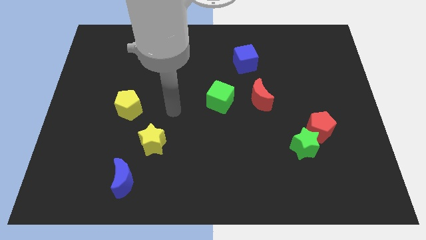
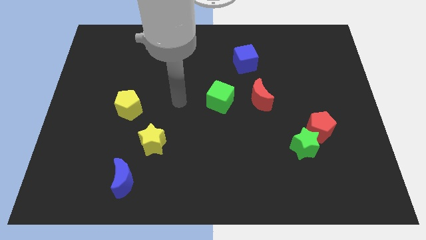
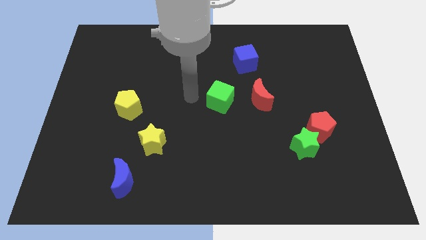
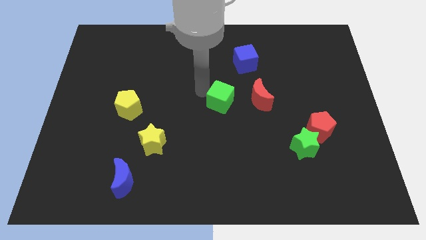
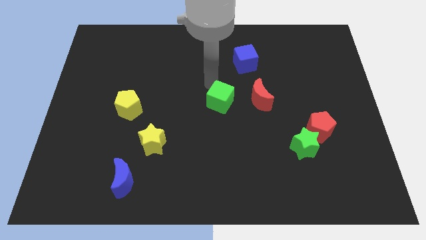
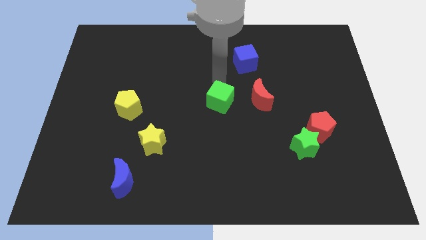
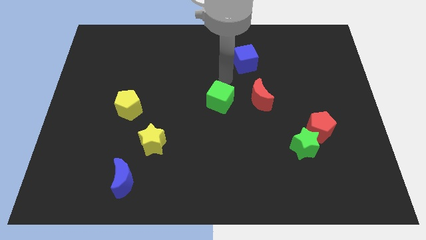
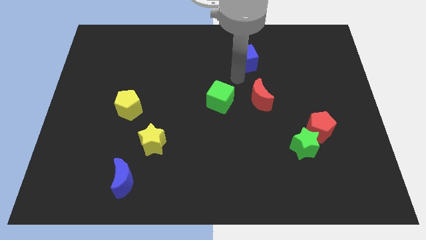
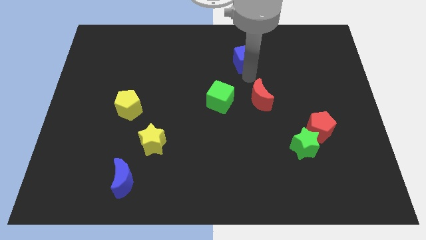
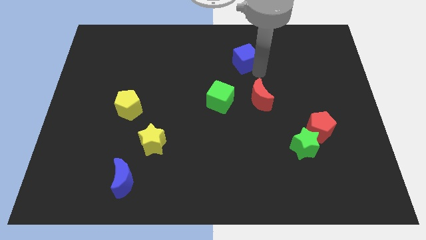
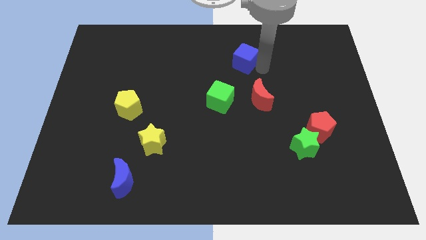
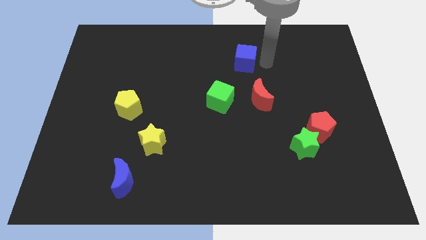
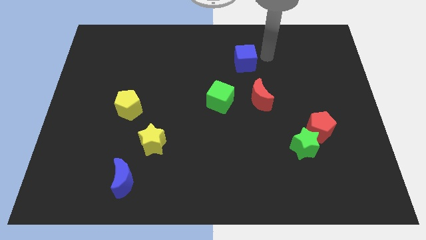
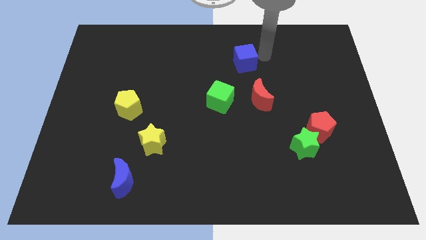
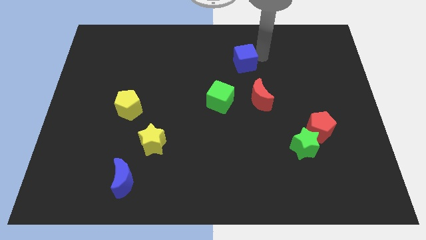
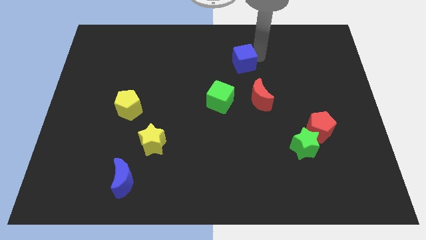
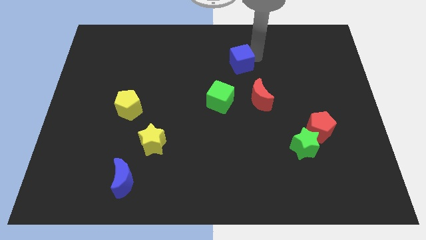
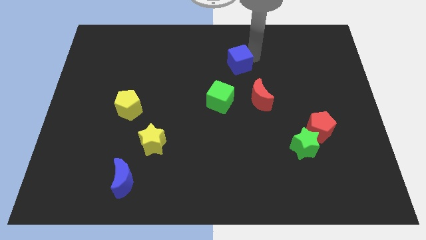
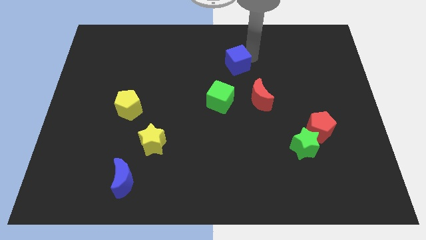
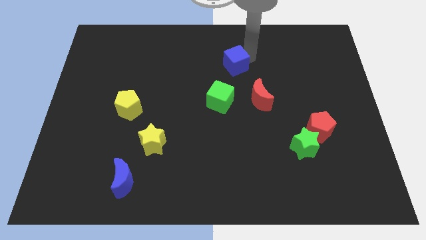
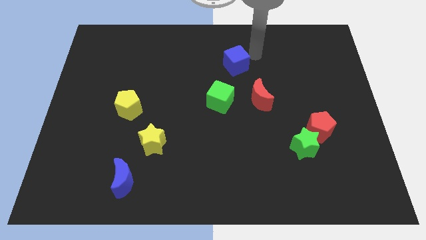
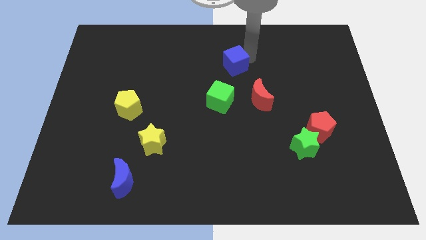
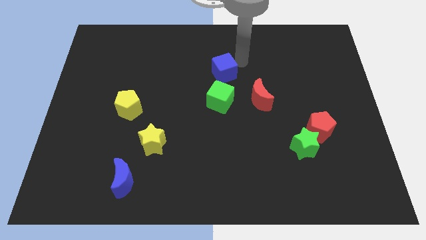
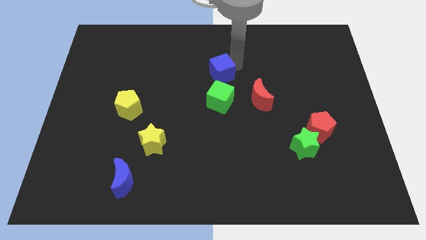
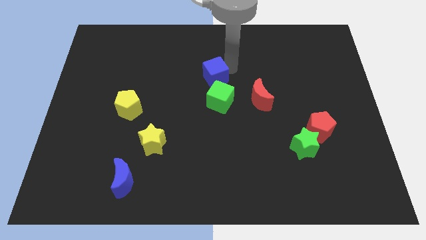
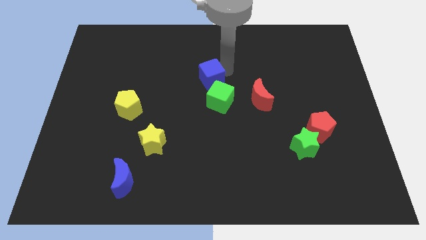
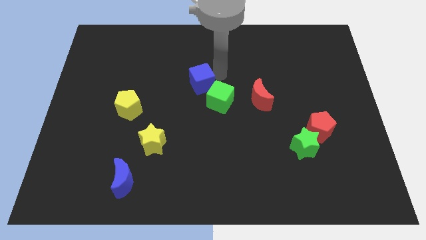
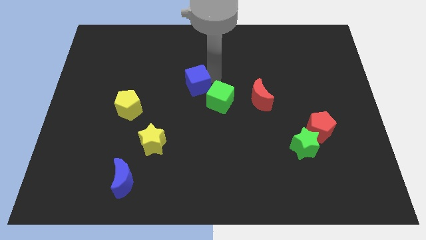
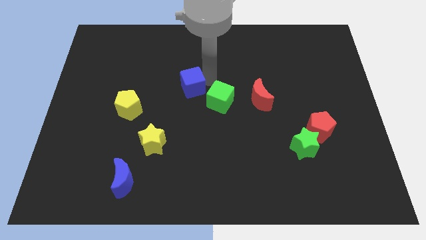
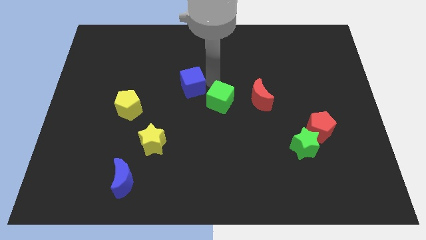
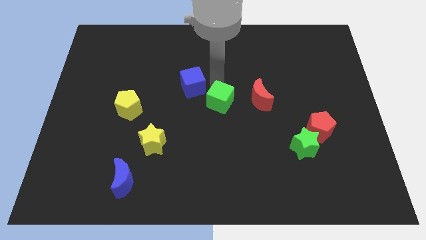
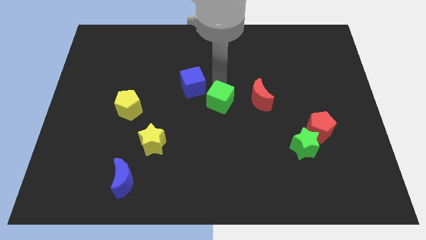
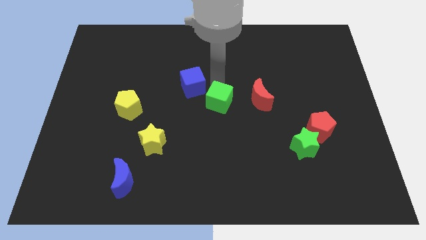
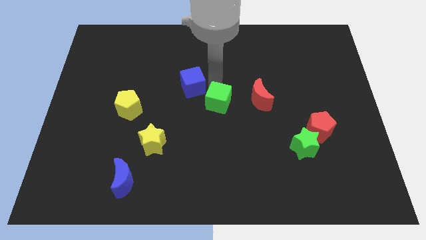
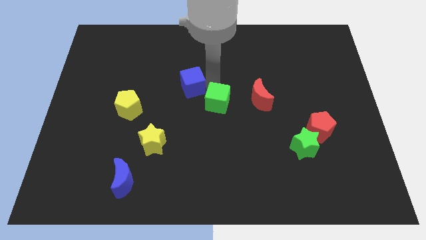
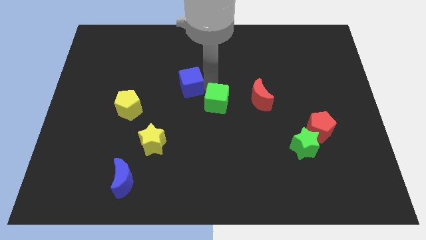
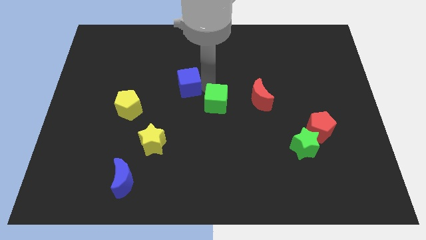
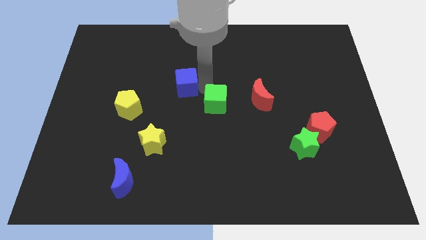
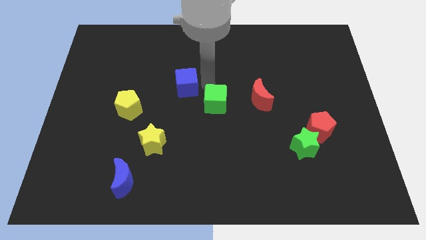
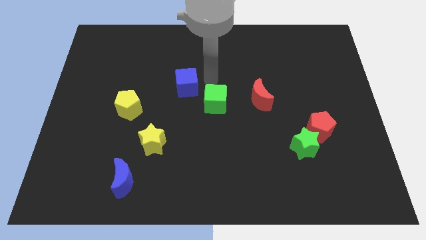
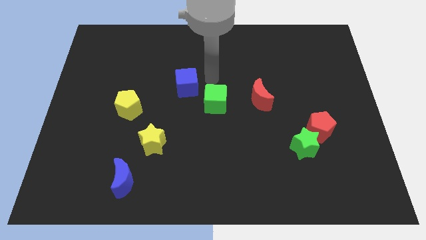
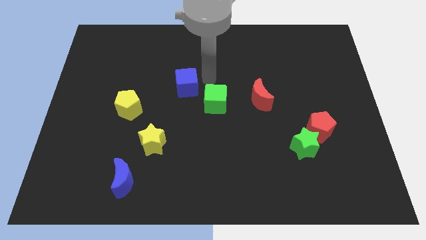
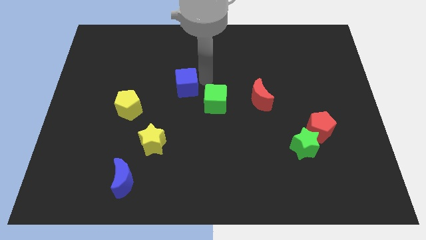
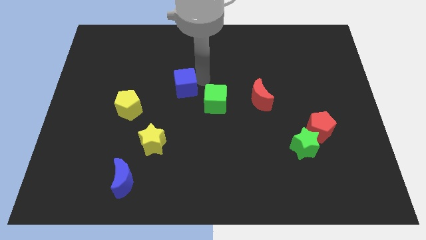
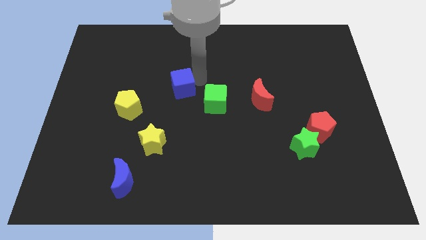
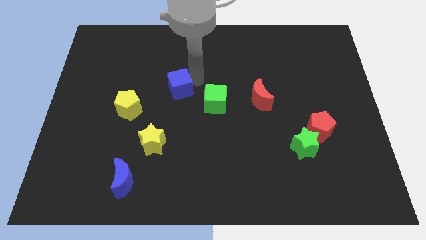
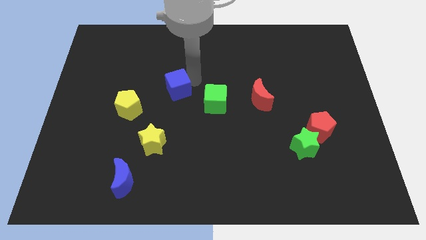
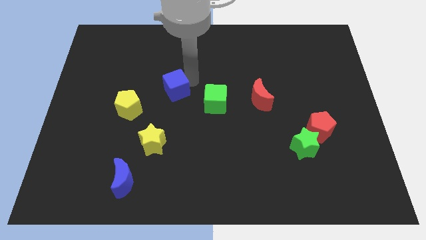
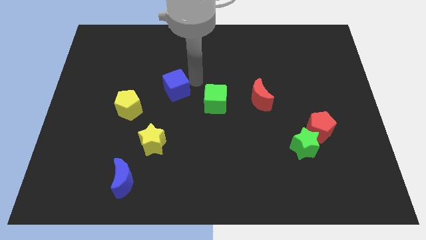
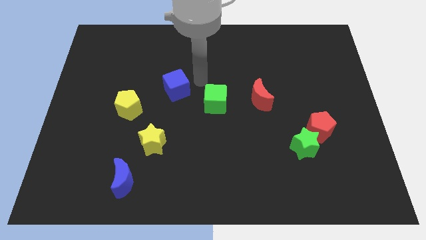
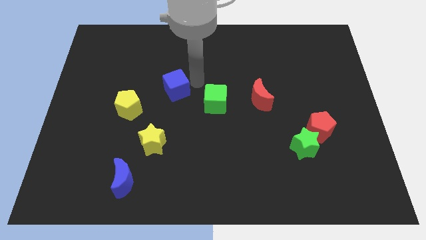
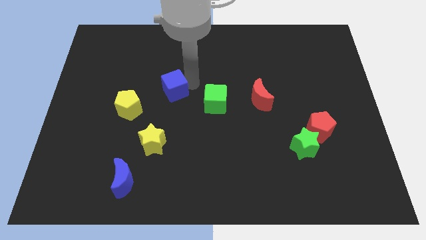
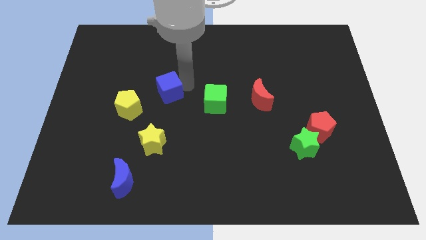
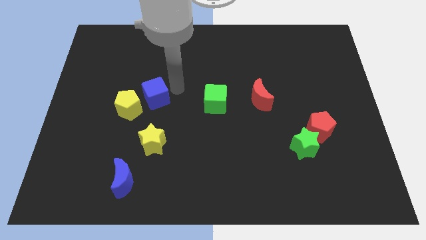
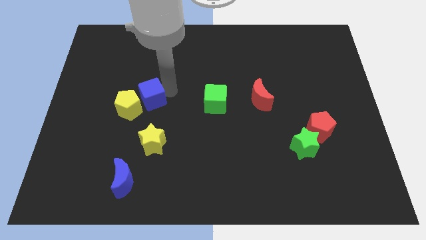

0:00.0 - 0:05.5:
move the blue cube to the yellow pentagon
